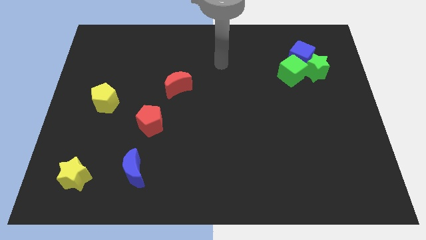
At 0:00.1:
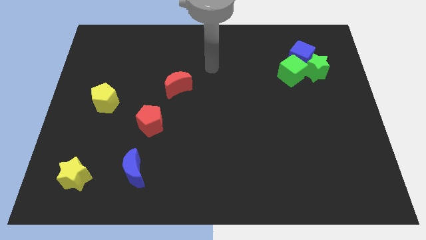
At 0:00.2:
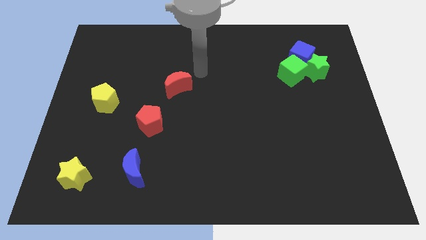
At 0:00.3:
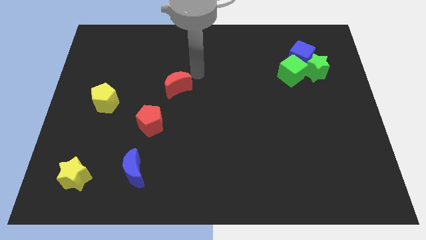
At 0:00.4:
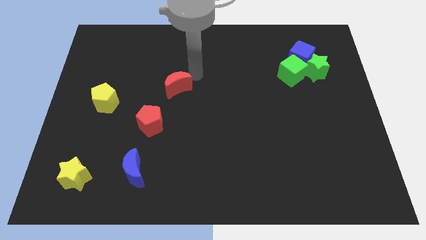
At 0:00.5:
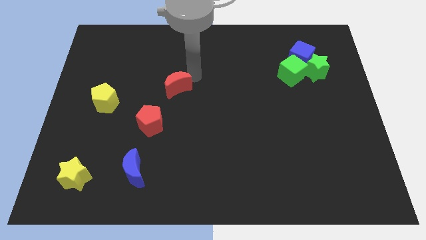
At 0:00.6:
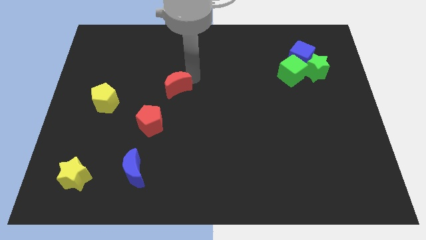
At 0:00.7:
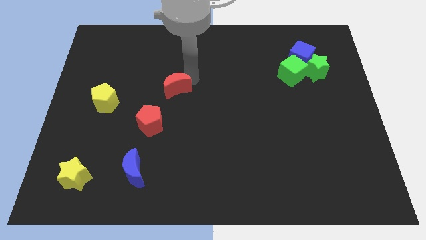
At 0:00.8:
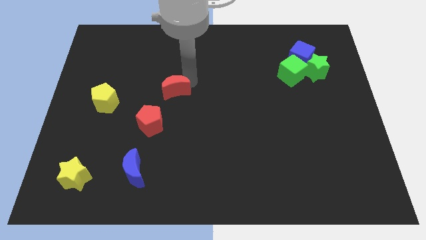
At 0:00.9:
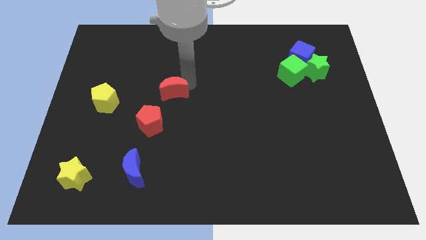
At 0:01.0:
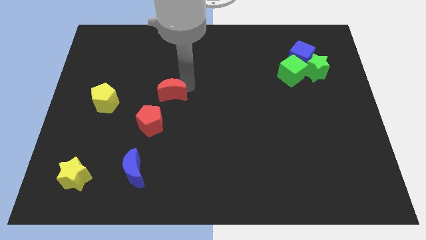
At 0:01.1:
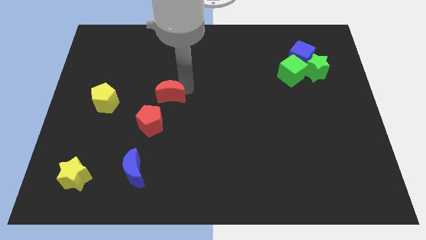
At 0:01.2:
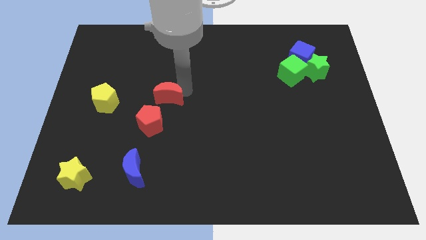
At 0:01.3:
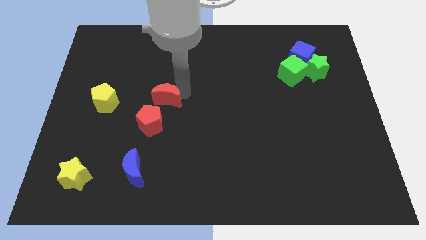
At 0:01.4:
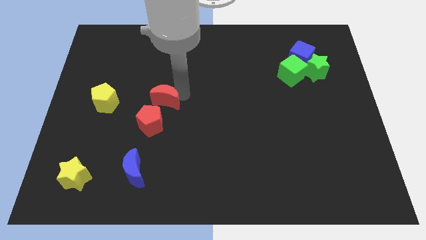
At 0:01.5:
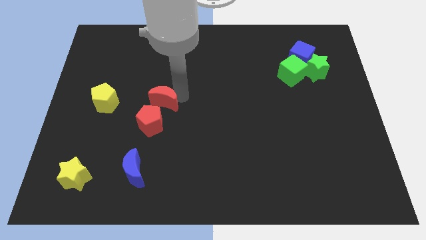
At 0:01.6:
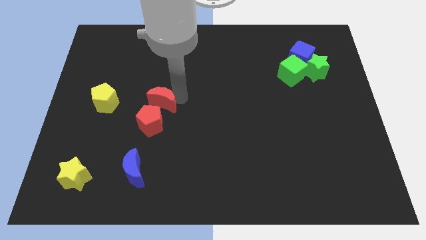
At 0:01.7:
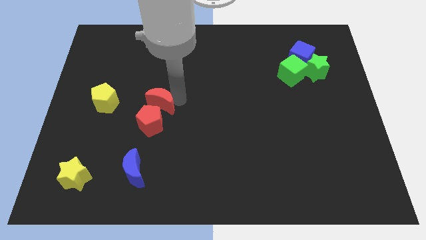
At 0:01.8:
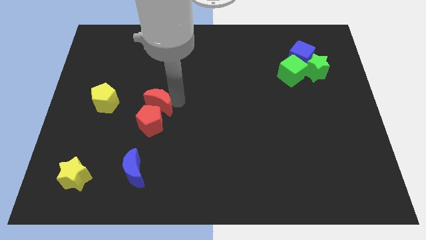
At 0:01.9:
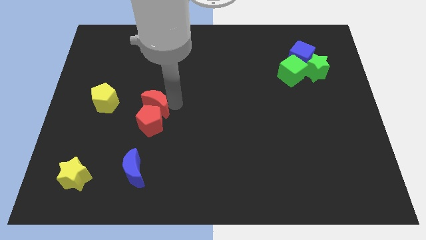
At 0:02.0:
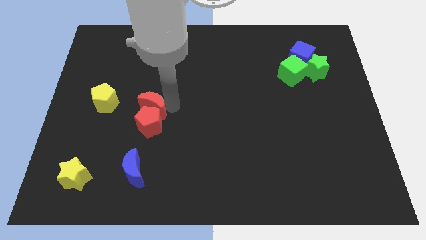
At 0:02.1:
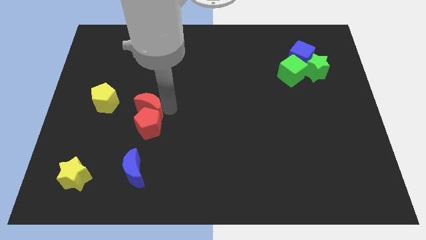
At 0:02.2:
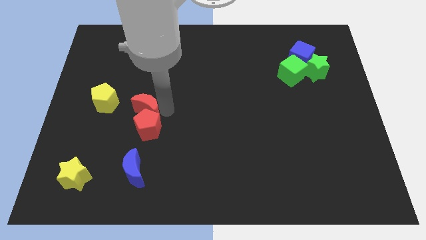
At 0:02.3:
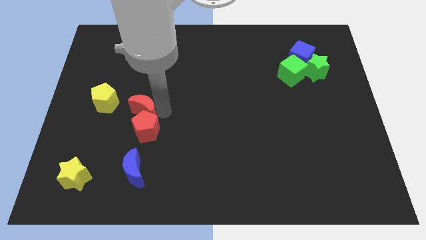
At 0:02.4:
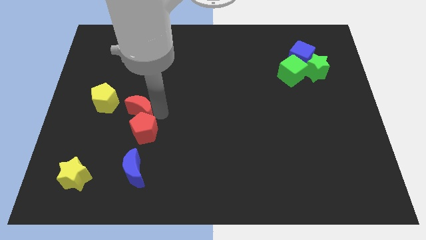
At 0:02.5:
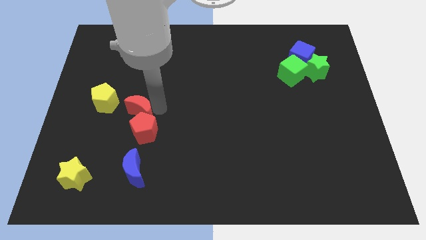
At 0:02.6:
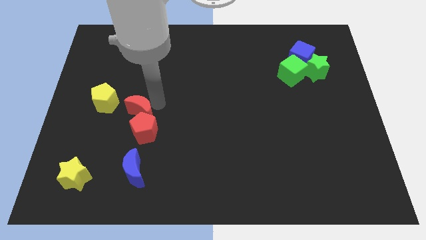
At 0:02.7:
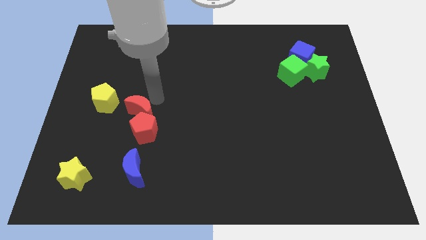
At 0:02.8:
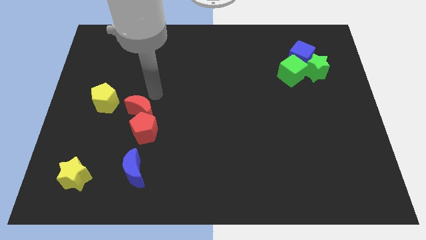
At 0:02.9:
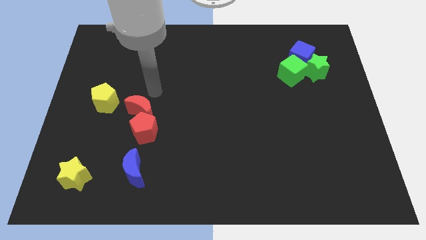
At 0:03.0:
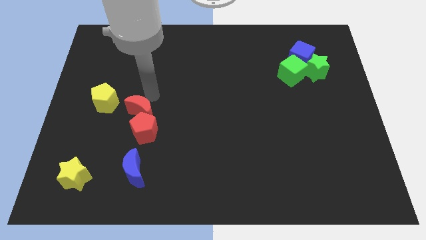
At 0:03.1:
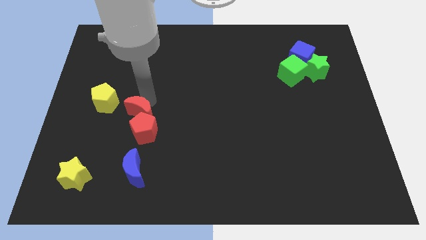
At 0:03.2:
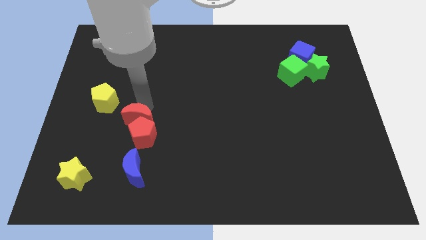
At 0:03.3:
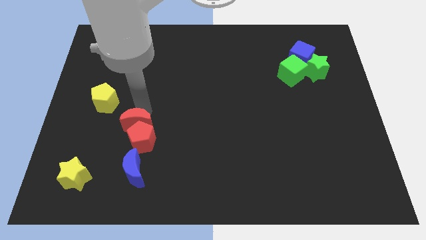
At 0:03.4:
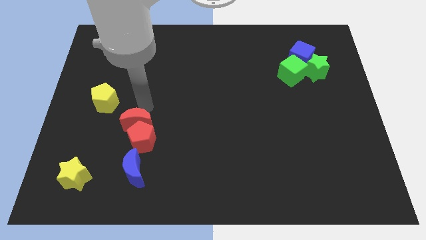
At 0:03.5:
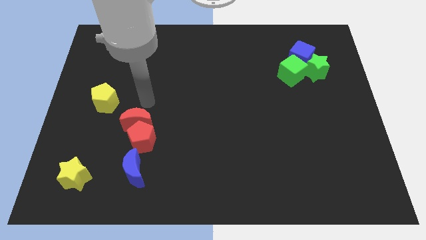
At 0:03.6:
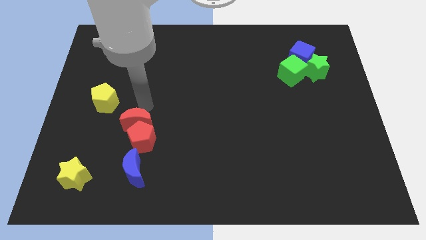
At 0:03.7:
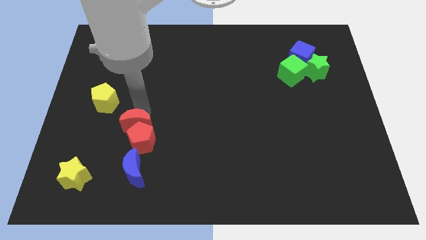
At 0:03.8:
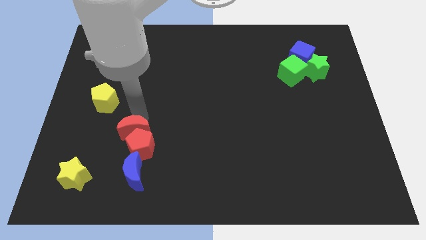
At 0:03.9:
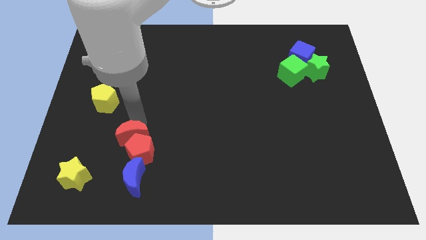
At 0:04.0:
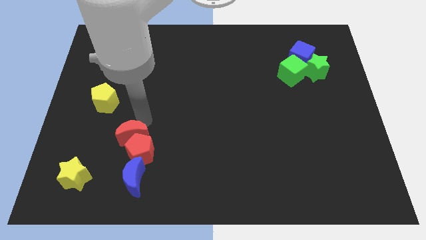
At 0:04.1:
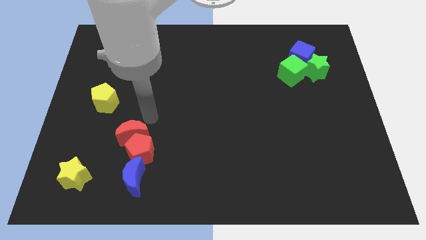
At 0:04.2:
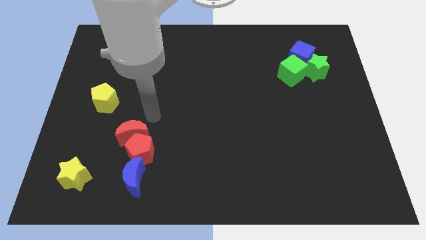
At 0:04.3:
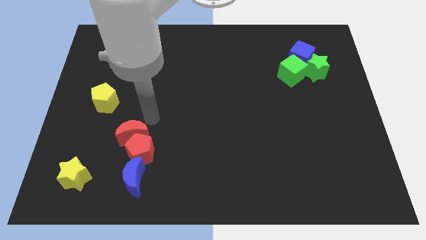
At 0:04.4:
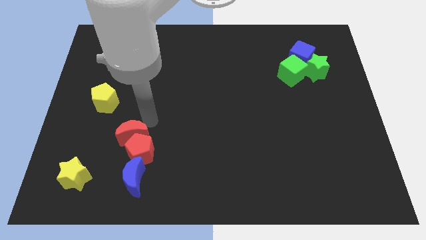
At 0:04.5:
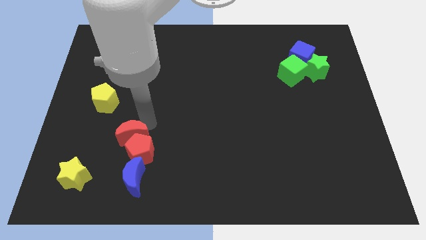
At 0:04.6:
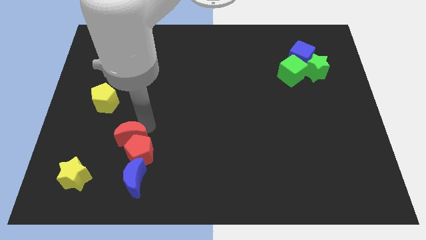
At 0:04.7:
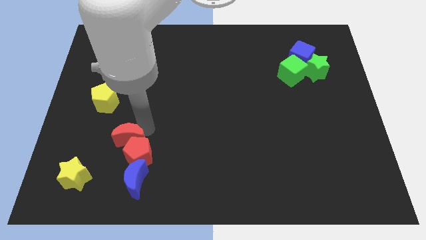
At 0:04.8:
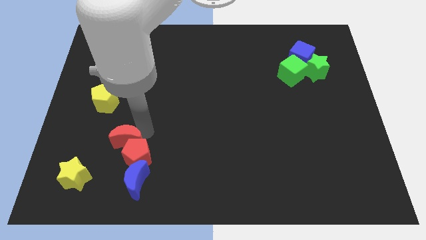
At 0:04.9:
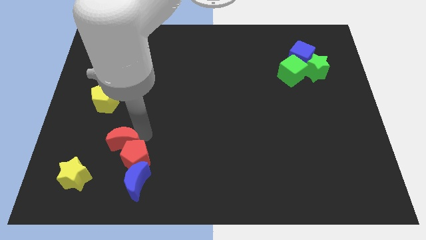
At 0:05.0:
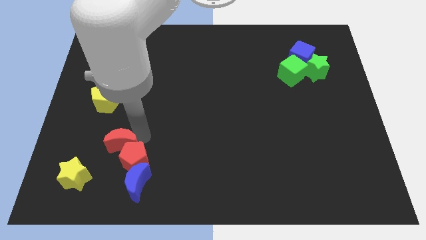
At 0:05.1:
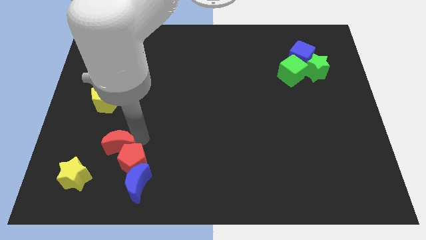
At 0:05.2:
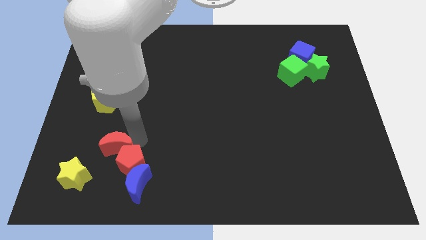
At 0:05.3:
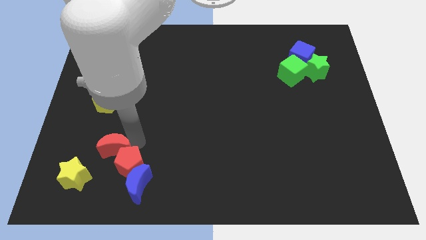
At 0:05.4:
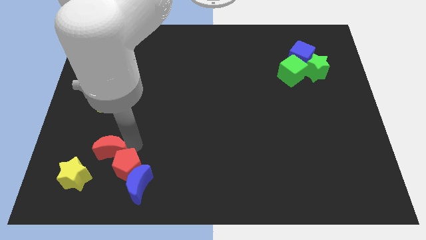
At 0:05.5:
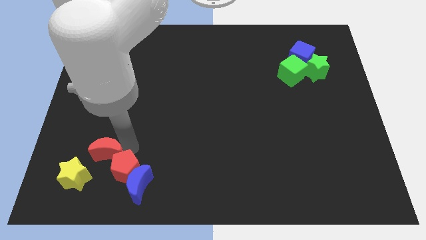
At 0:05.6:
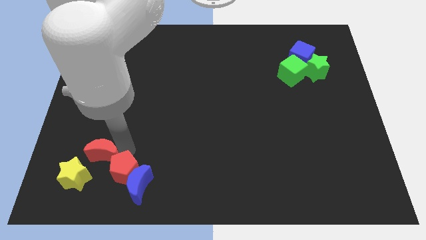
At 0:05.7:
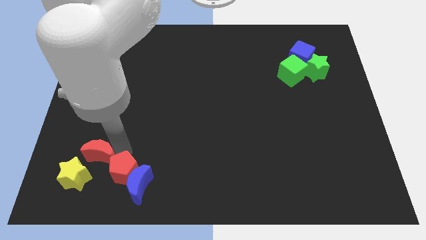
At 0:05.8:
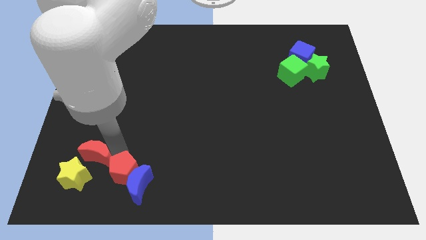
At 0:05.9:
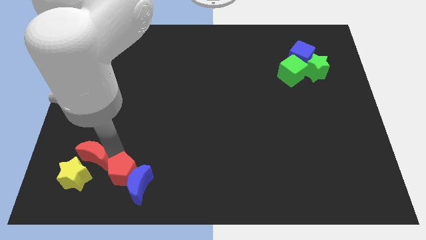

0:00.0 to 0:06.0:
move the red moon towards the yellow star

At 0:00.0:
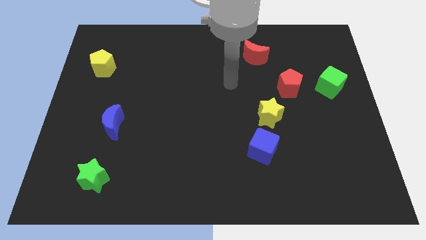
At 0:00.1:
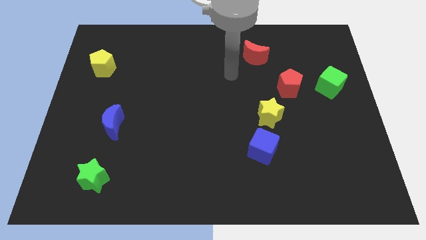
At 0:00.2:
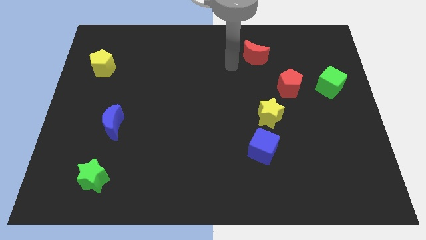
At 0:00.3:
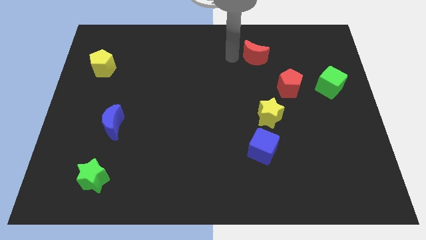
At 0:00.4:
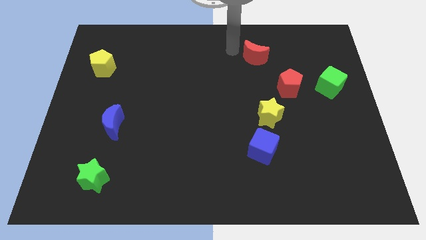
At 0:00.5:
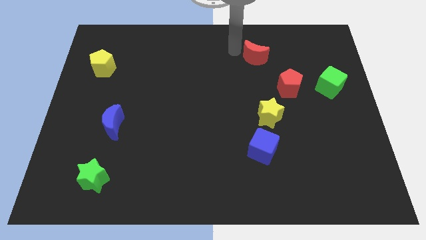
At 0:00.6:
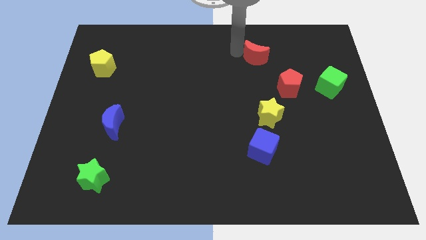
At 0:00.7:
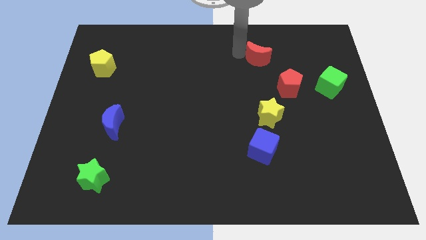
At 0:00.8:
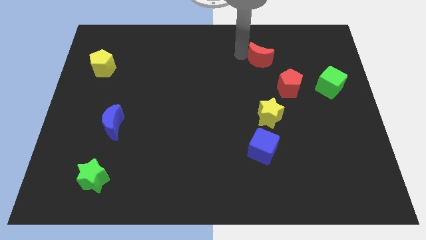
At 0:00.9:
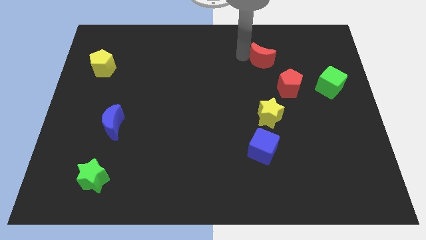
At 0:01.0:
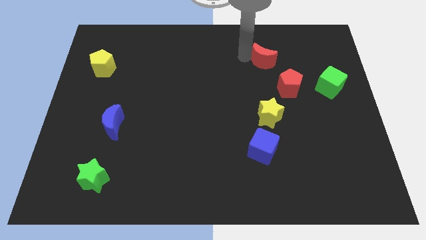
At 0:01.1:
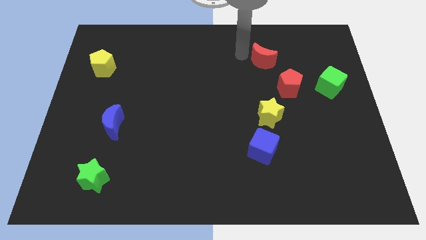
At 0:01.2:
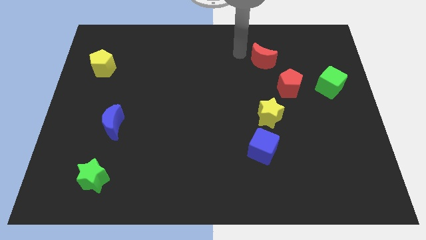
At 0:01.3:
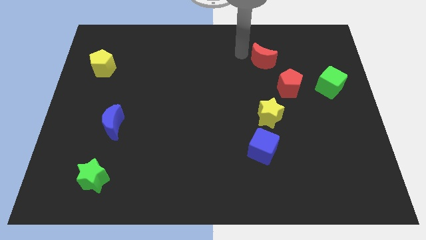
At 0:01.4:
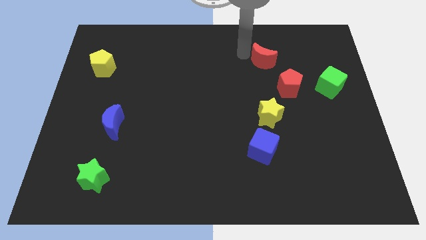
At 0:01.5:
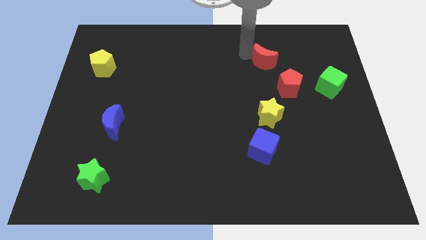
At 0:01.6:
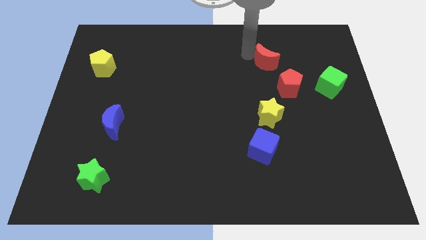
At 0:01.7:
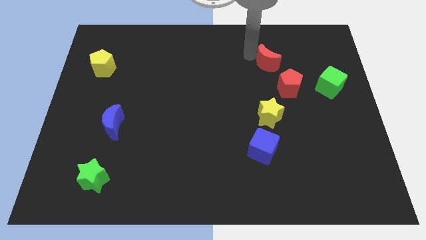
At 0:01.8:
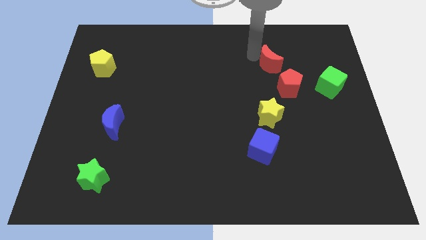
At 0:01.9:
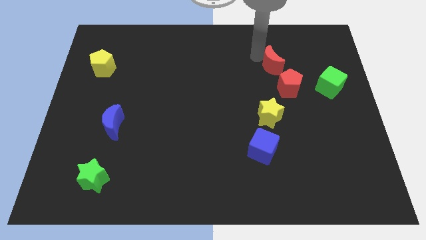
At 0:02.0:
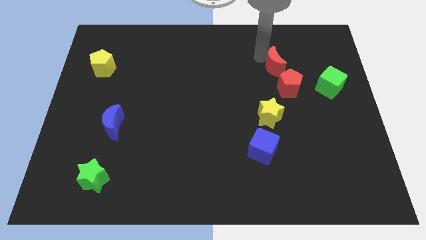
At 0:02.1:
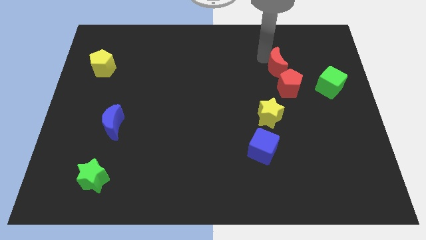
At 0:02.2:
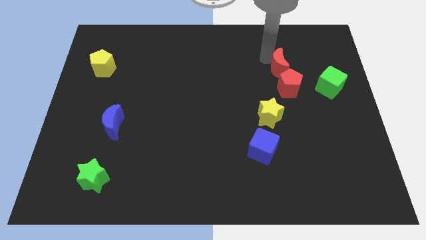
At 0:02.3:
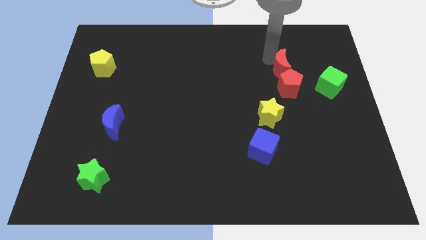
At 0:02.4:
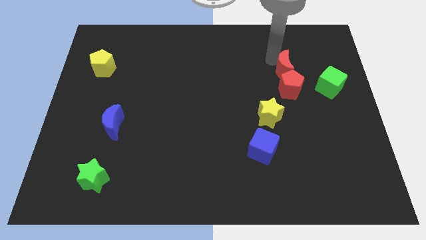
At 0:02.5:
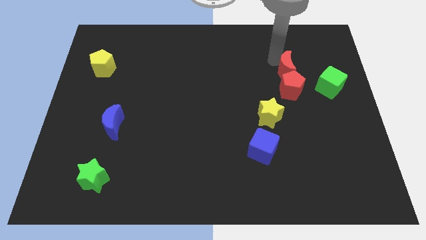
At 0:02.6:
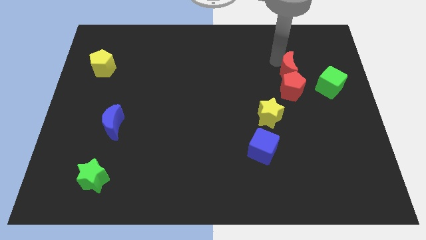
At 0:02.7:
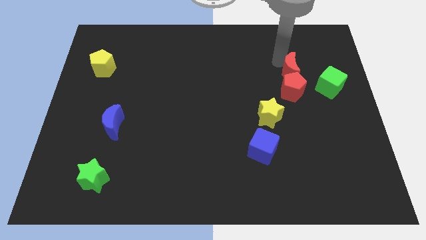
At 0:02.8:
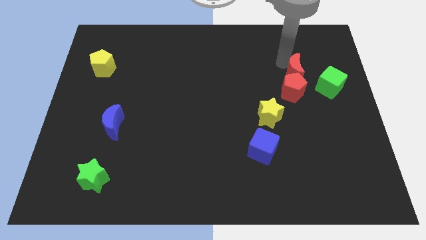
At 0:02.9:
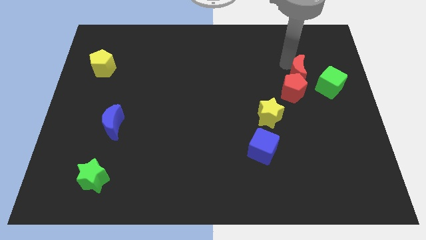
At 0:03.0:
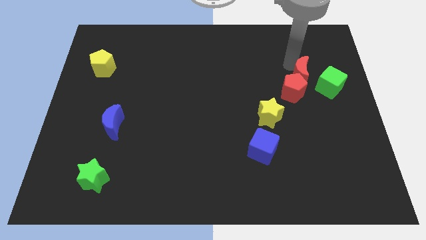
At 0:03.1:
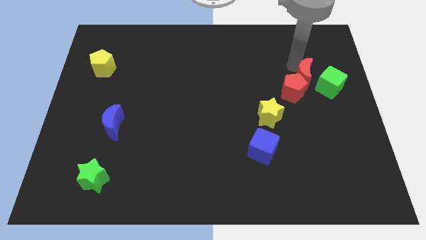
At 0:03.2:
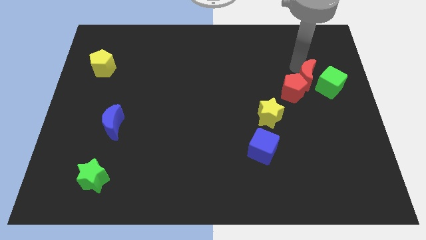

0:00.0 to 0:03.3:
push the red moon close to the green cube
